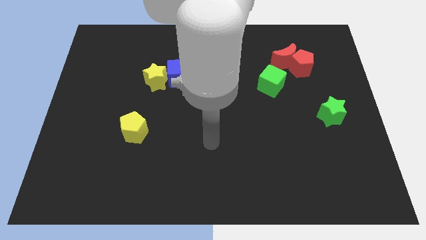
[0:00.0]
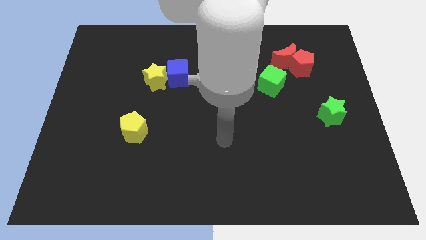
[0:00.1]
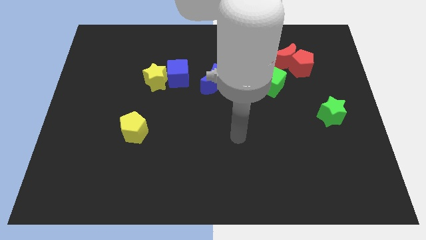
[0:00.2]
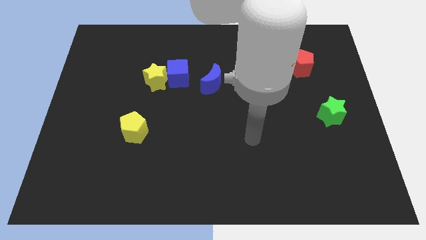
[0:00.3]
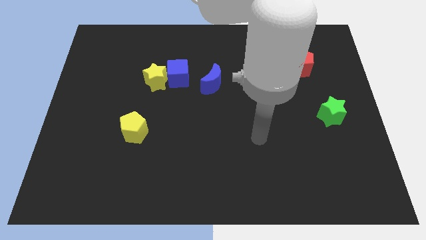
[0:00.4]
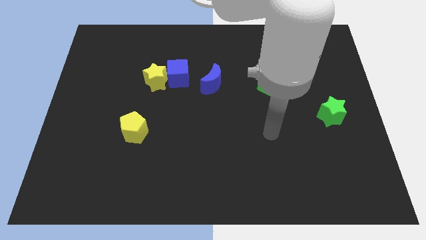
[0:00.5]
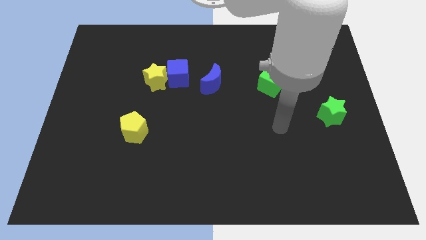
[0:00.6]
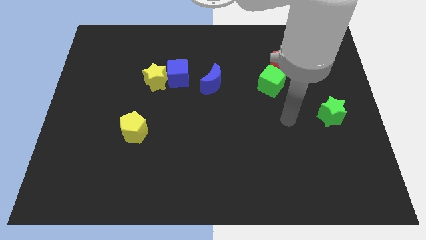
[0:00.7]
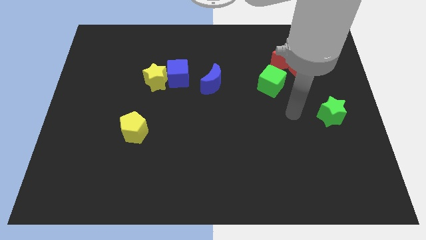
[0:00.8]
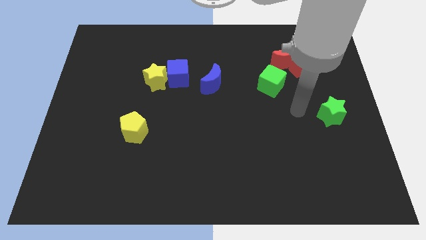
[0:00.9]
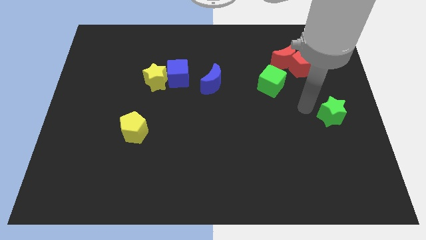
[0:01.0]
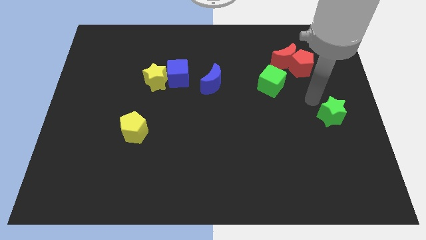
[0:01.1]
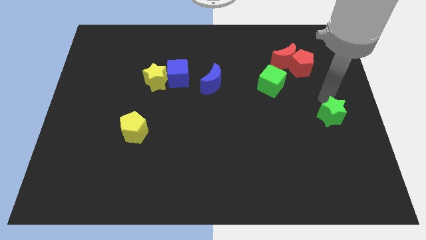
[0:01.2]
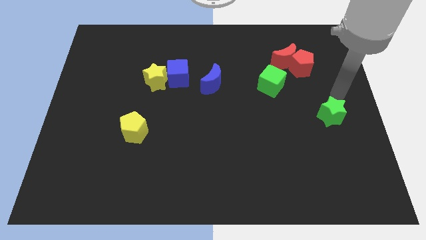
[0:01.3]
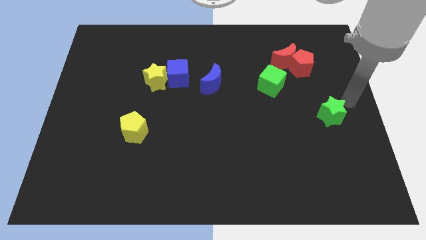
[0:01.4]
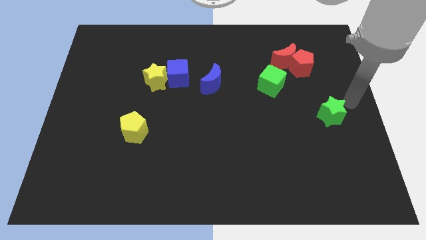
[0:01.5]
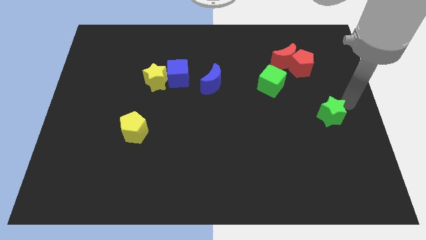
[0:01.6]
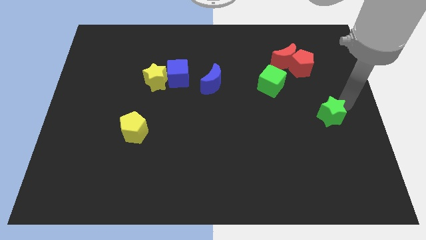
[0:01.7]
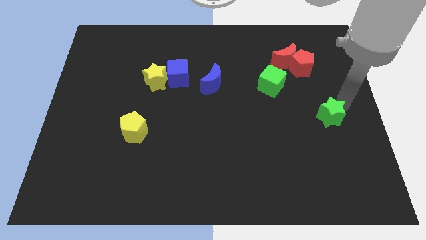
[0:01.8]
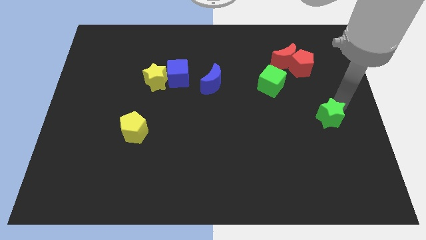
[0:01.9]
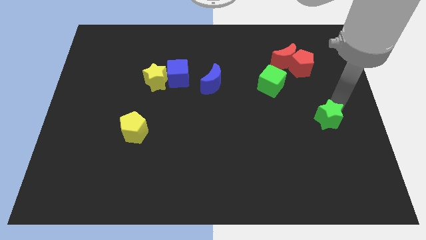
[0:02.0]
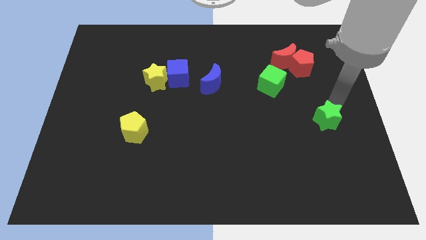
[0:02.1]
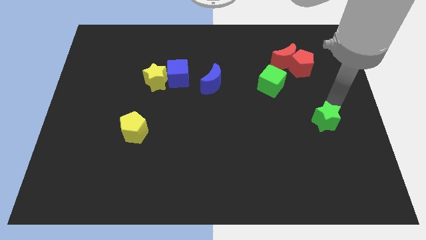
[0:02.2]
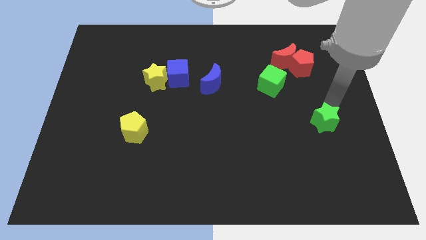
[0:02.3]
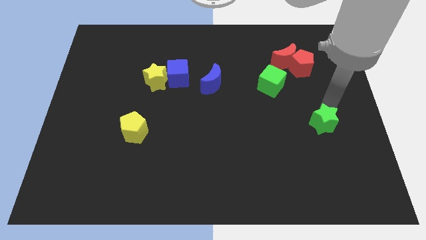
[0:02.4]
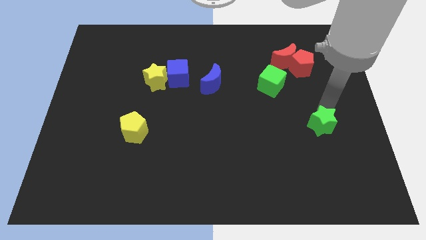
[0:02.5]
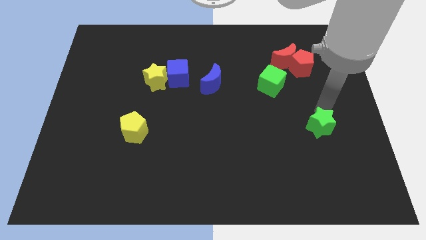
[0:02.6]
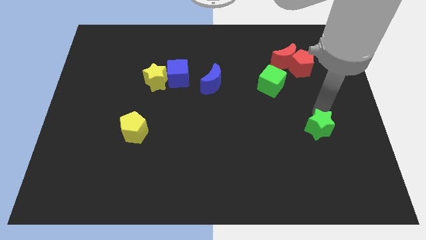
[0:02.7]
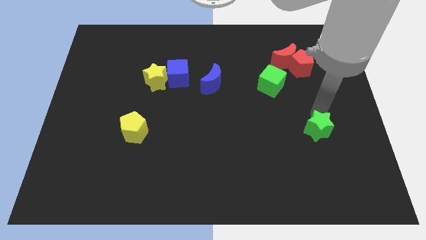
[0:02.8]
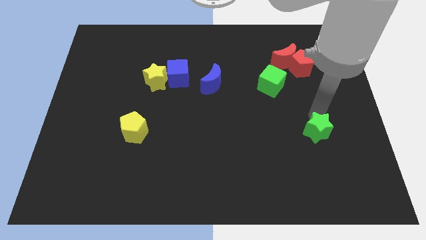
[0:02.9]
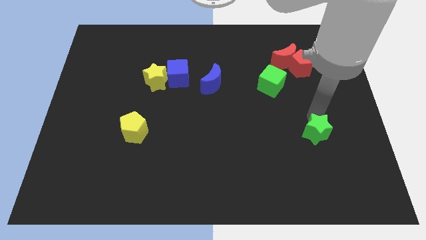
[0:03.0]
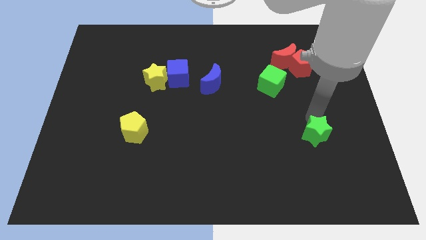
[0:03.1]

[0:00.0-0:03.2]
move the green star downwards and to the left diagonally somewhat

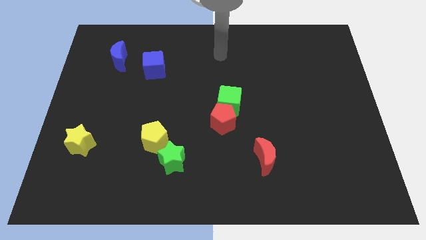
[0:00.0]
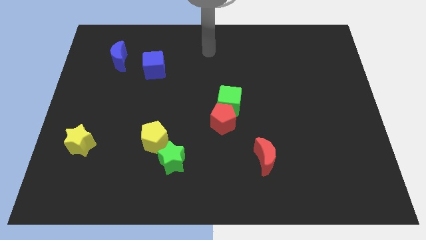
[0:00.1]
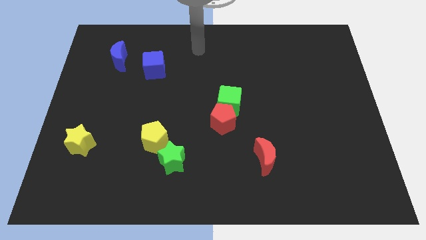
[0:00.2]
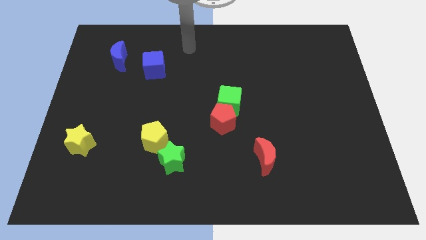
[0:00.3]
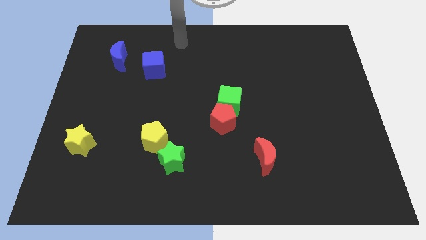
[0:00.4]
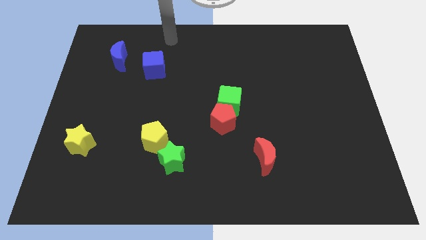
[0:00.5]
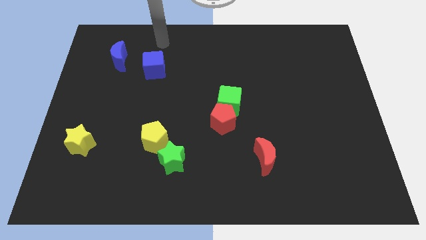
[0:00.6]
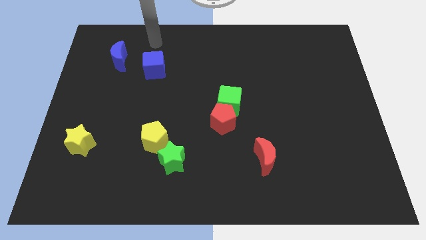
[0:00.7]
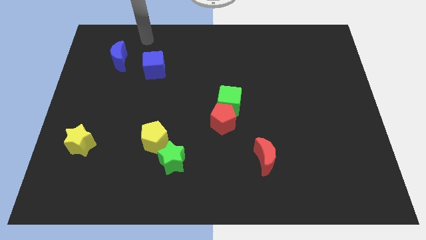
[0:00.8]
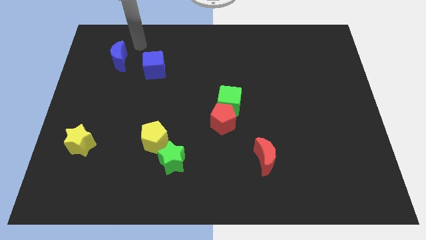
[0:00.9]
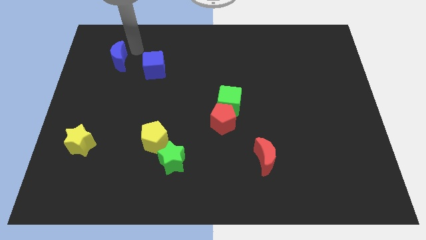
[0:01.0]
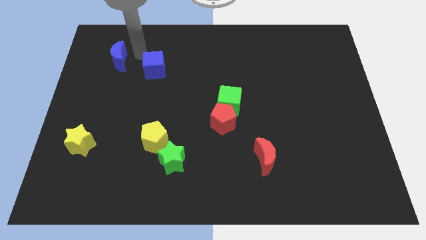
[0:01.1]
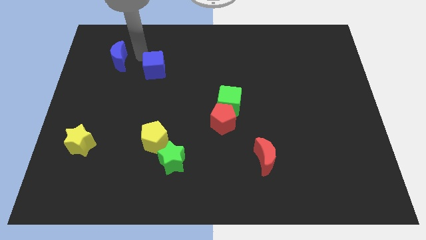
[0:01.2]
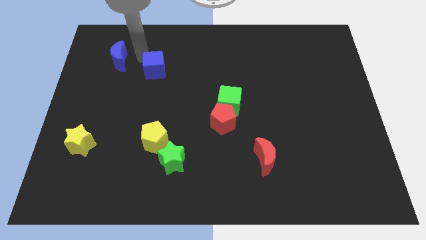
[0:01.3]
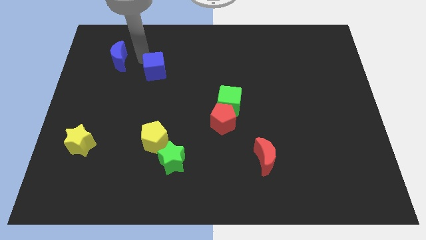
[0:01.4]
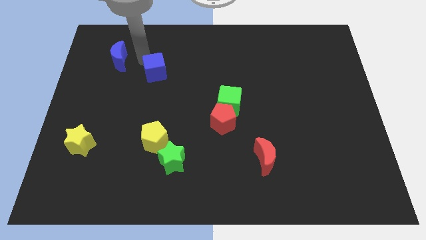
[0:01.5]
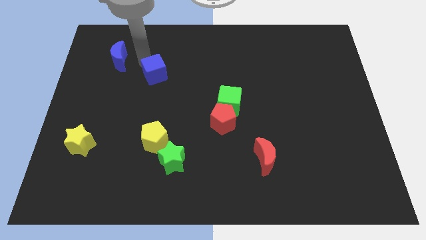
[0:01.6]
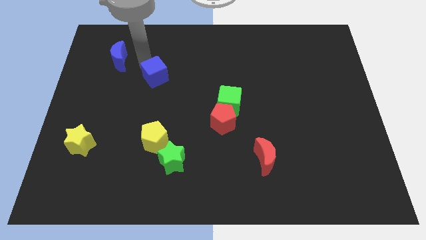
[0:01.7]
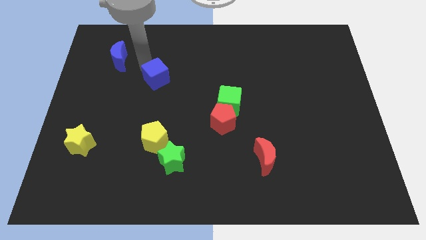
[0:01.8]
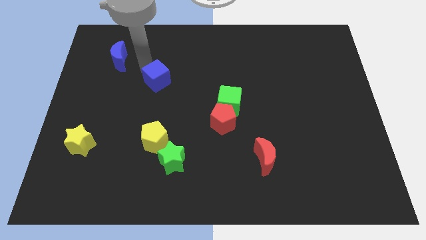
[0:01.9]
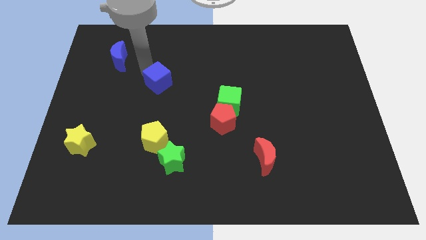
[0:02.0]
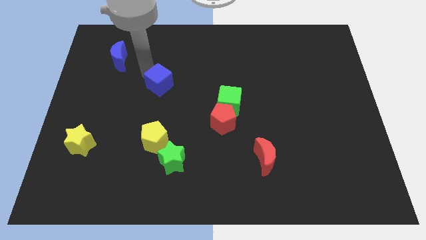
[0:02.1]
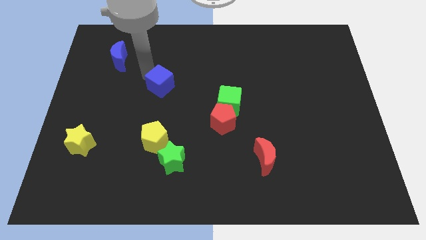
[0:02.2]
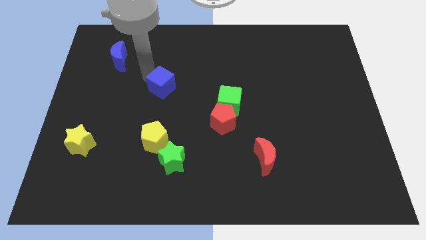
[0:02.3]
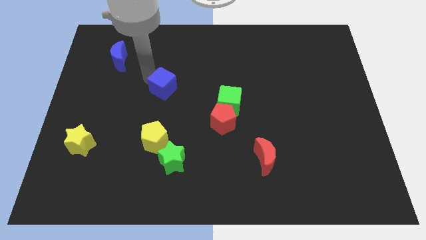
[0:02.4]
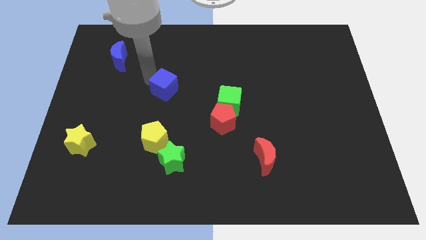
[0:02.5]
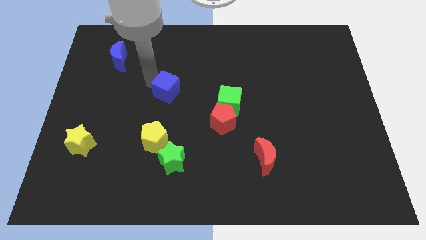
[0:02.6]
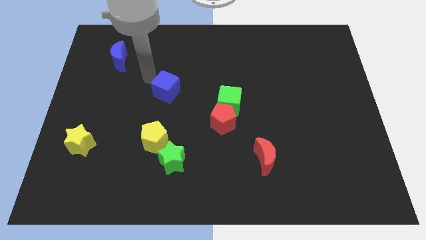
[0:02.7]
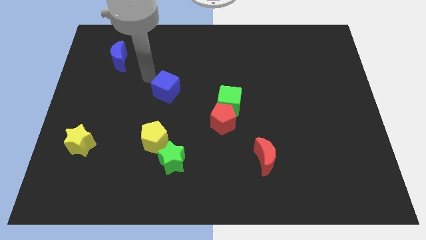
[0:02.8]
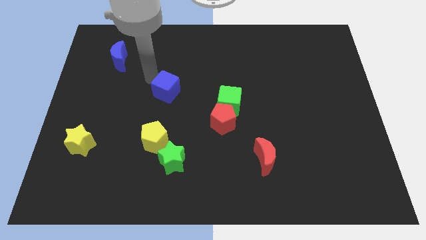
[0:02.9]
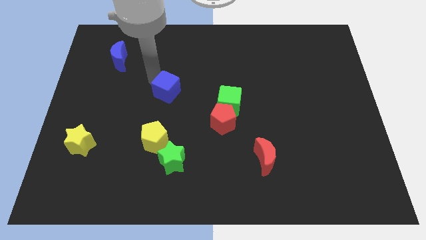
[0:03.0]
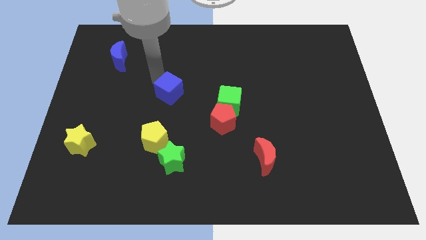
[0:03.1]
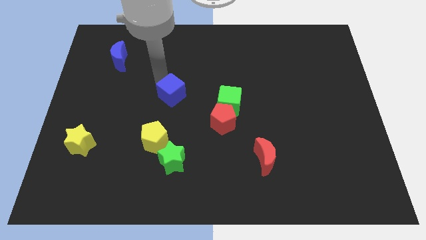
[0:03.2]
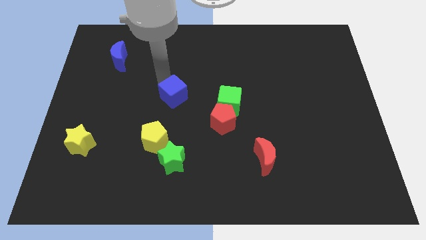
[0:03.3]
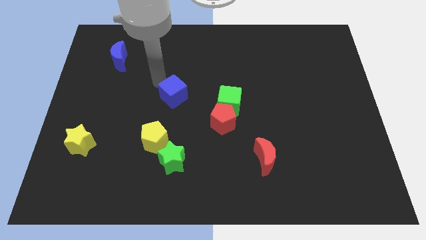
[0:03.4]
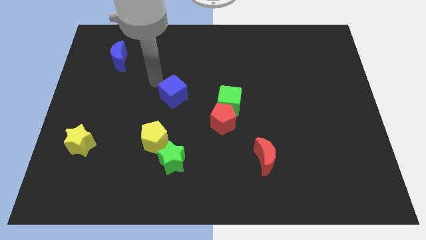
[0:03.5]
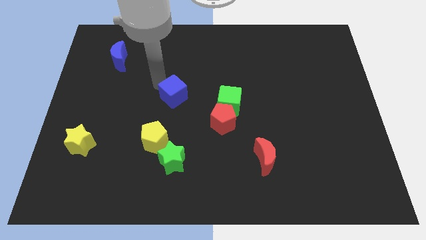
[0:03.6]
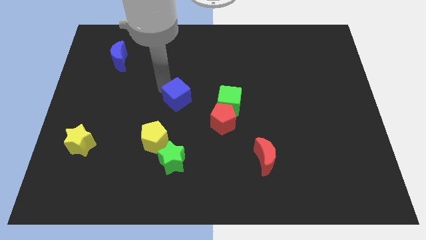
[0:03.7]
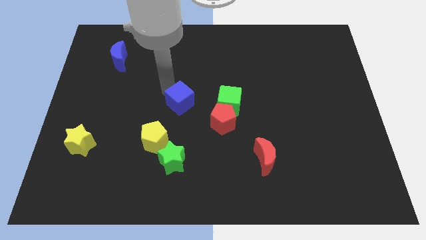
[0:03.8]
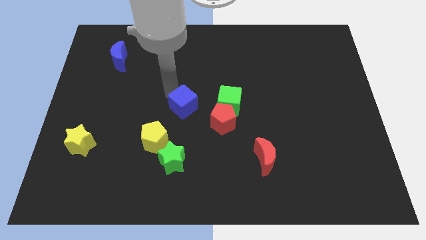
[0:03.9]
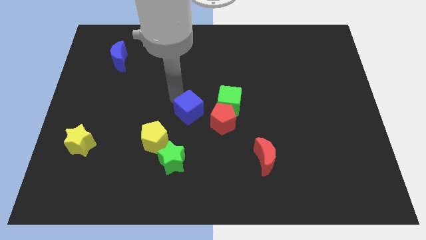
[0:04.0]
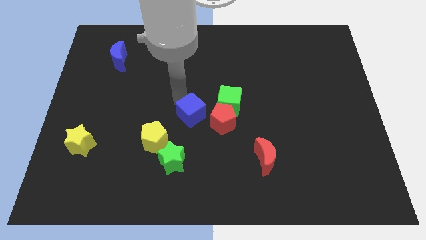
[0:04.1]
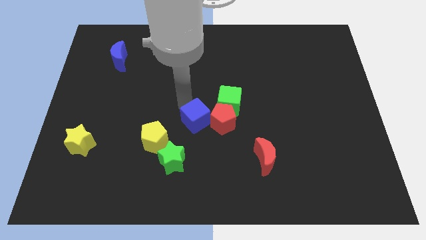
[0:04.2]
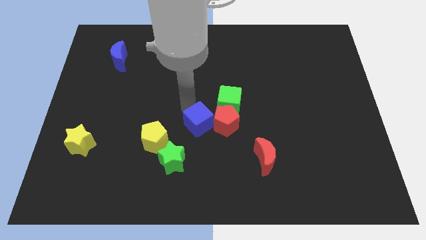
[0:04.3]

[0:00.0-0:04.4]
slide the blue cube diagonally down and right

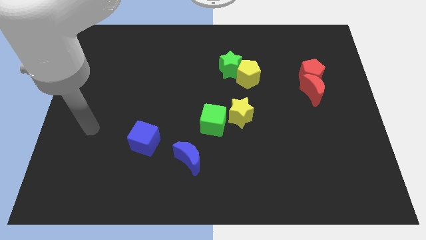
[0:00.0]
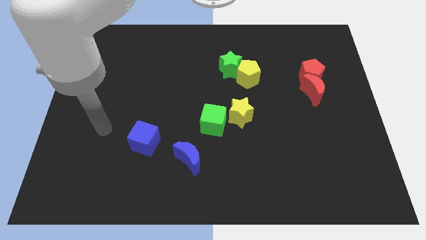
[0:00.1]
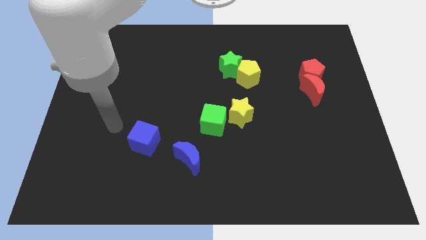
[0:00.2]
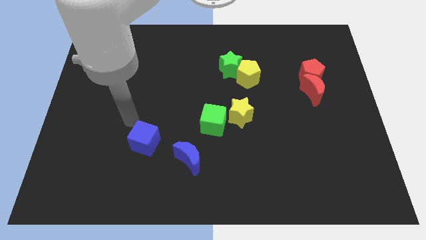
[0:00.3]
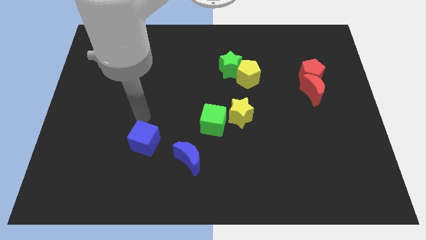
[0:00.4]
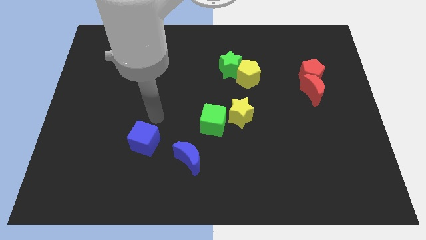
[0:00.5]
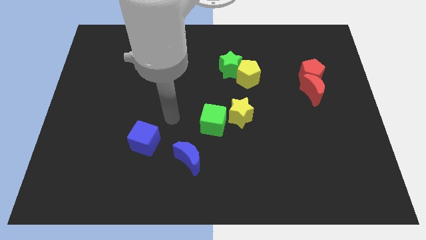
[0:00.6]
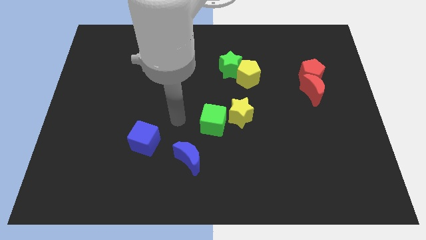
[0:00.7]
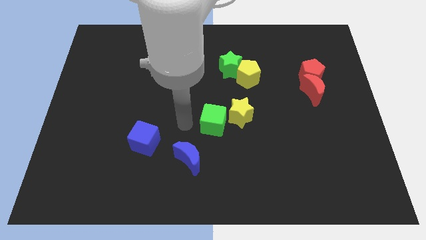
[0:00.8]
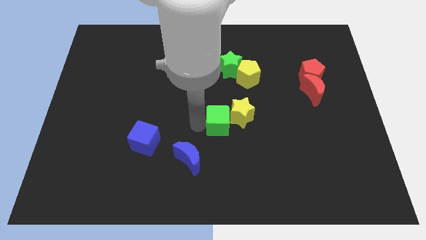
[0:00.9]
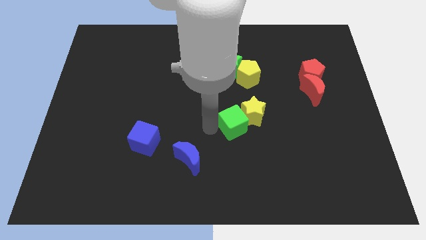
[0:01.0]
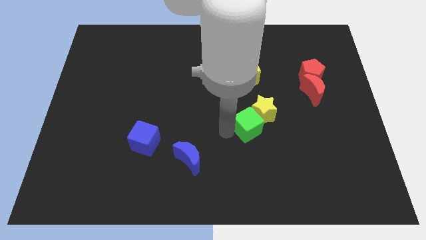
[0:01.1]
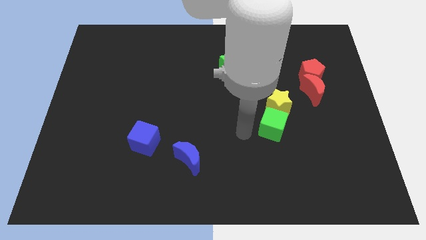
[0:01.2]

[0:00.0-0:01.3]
move the yellow star up and to the right diagonally a little bit
